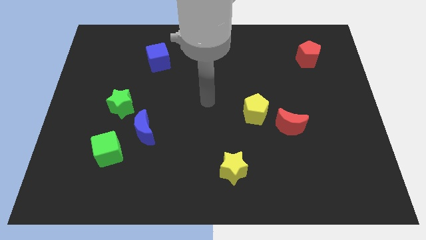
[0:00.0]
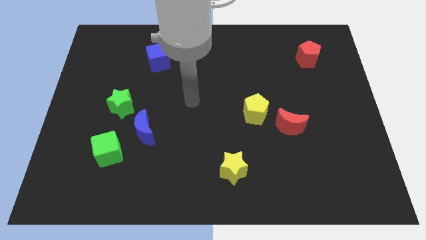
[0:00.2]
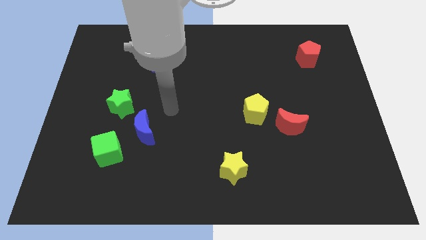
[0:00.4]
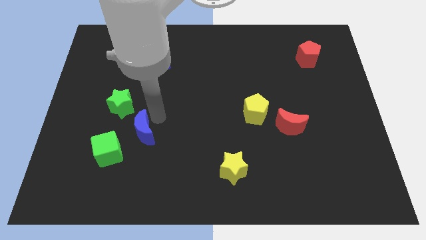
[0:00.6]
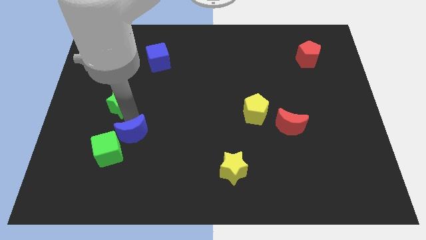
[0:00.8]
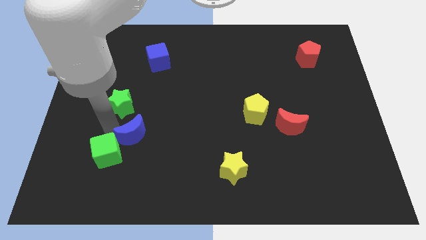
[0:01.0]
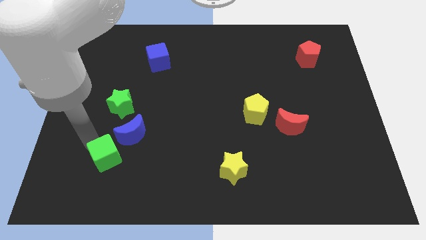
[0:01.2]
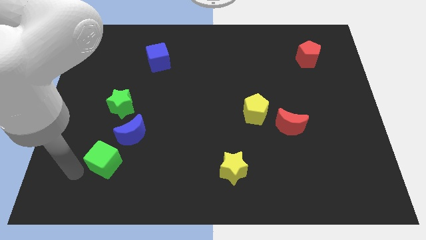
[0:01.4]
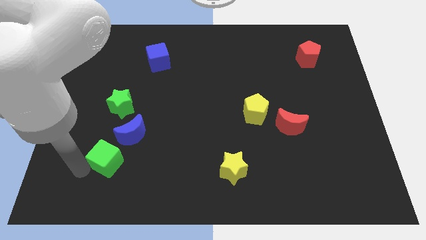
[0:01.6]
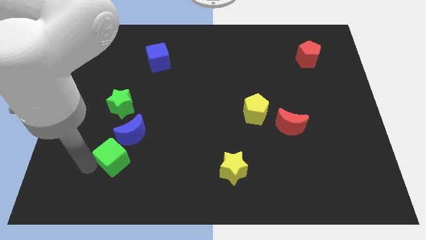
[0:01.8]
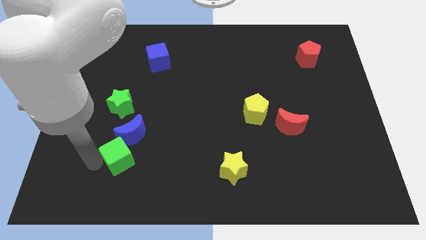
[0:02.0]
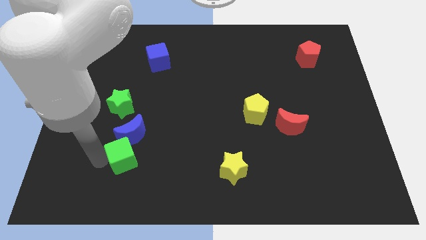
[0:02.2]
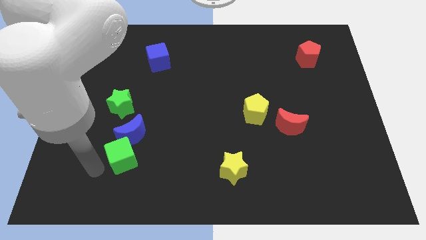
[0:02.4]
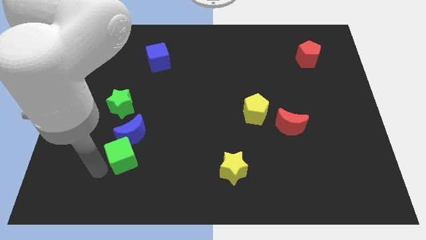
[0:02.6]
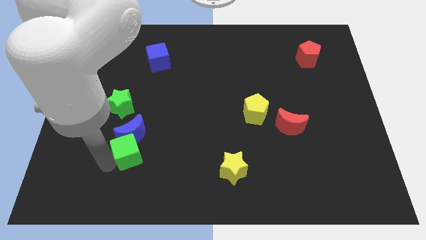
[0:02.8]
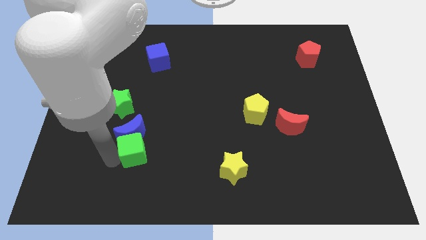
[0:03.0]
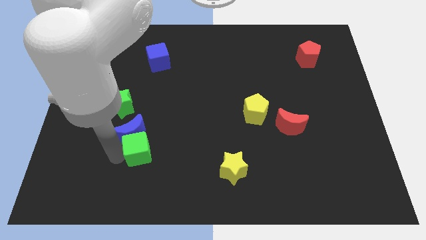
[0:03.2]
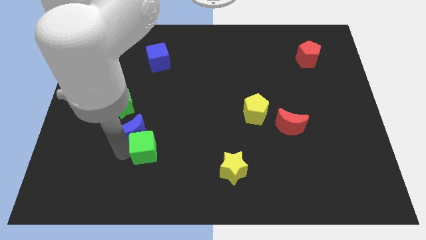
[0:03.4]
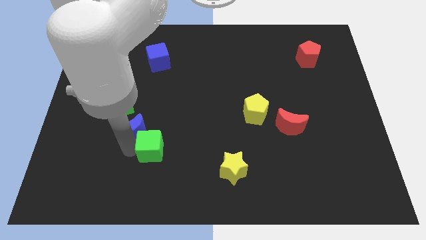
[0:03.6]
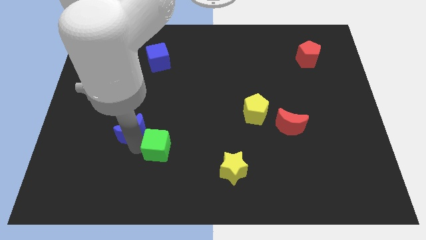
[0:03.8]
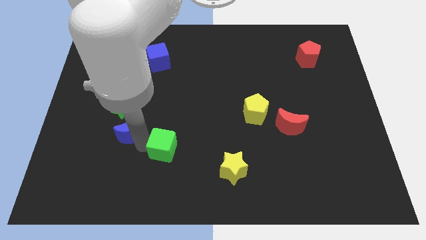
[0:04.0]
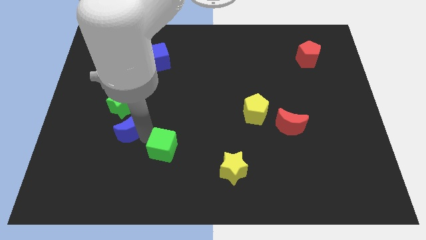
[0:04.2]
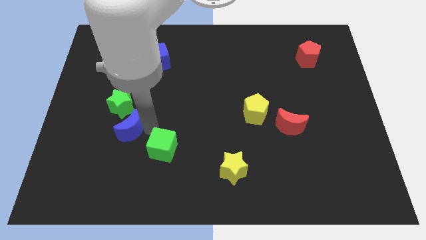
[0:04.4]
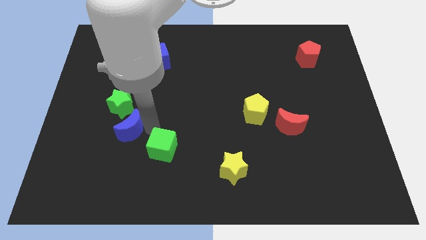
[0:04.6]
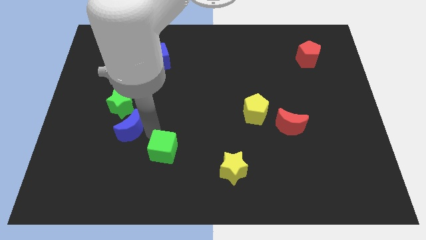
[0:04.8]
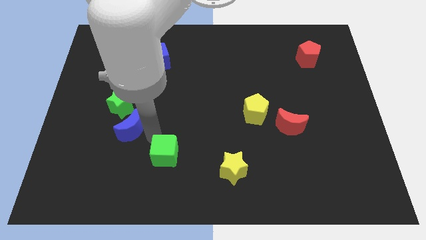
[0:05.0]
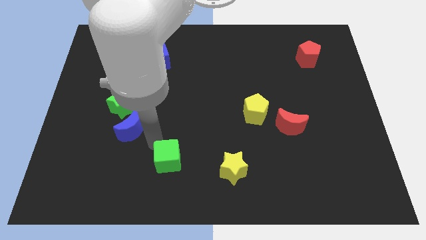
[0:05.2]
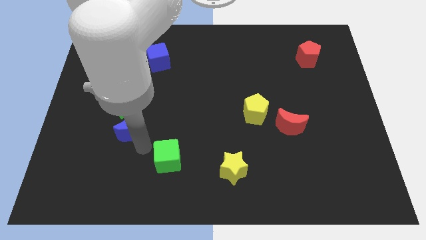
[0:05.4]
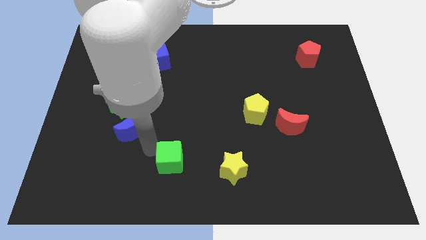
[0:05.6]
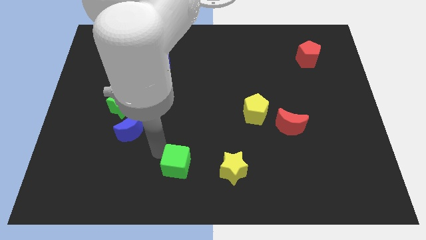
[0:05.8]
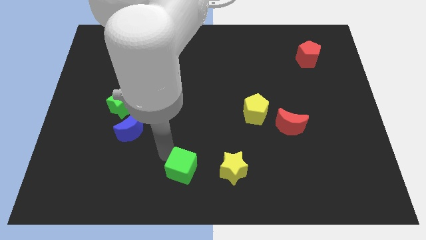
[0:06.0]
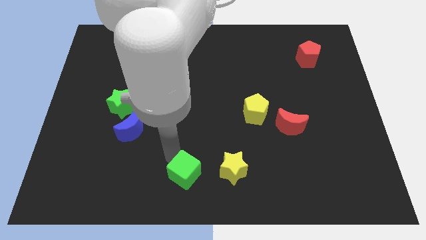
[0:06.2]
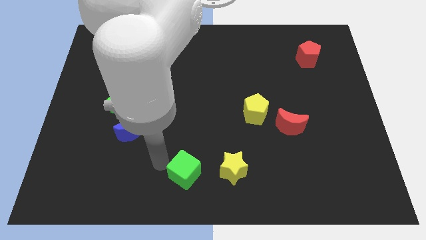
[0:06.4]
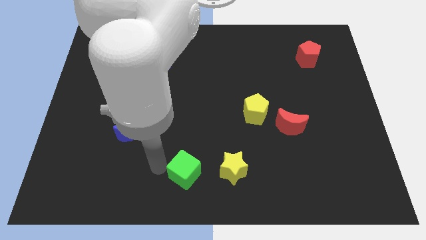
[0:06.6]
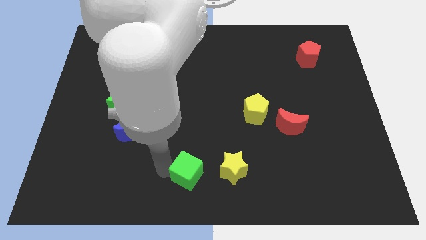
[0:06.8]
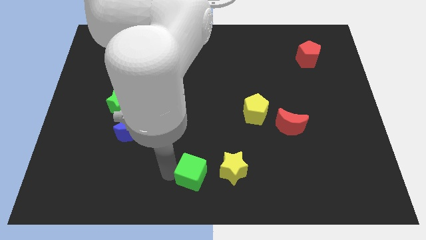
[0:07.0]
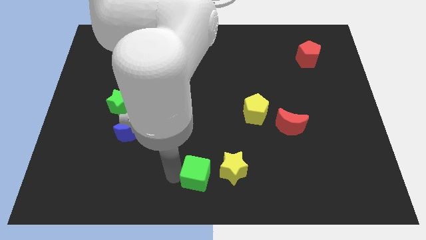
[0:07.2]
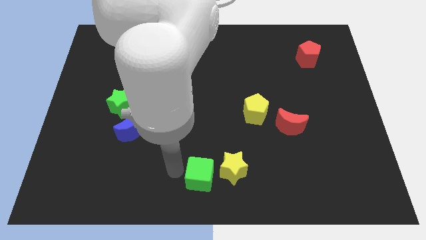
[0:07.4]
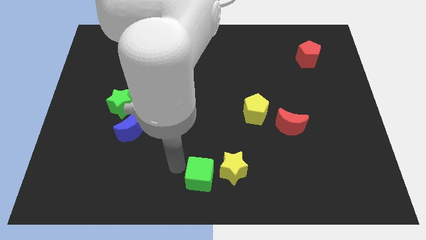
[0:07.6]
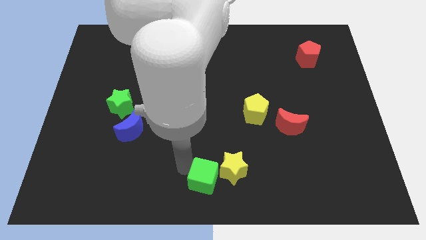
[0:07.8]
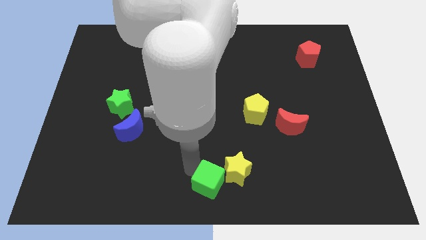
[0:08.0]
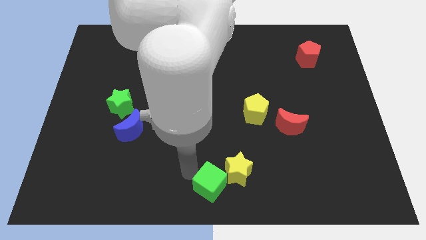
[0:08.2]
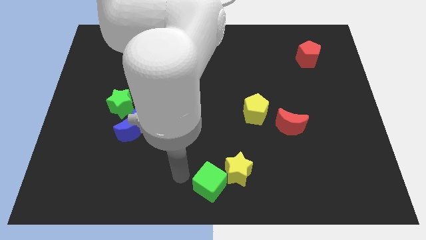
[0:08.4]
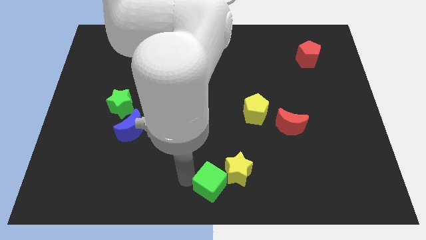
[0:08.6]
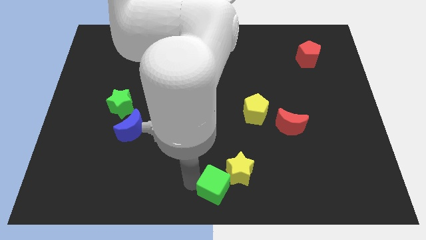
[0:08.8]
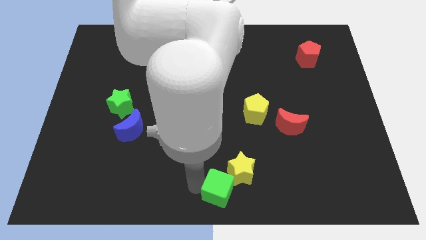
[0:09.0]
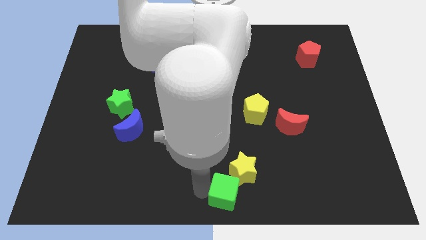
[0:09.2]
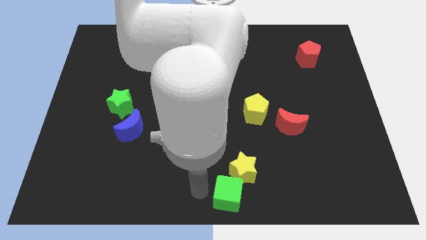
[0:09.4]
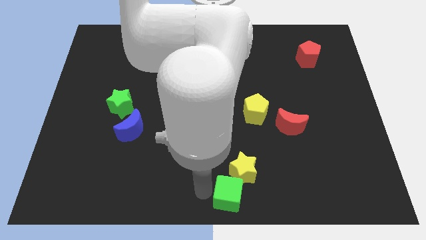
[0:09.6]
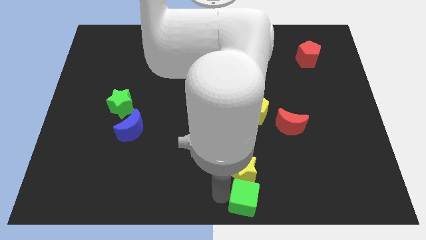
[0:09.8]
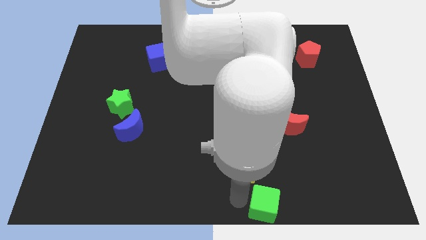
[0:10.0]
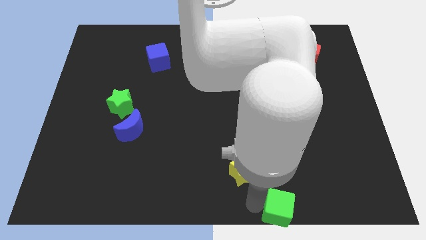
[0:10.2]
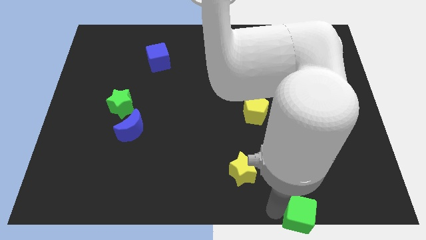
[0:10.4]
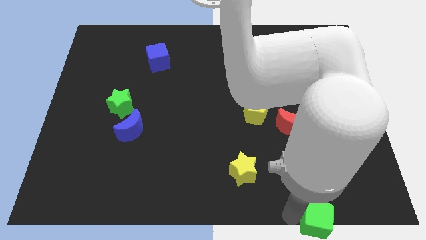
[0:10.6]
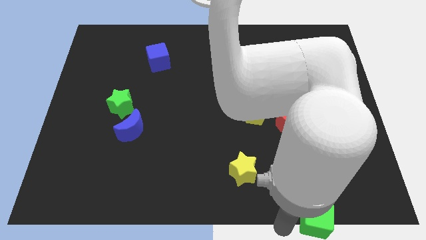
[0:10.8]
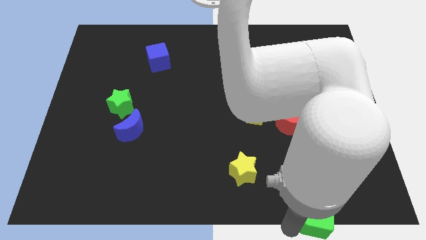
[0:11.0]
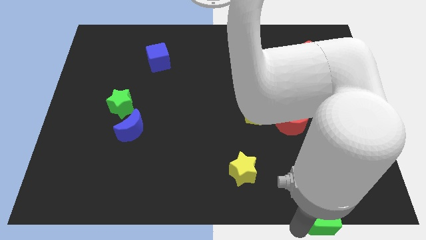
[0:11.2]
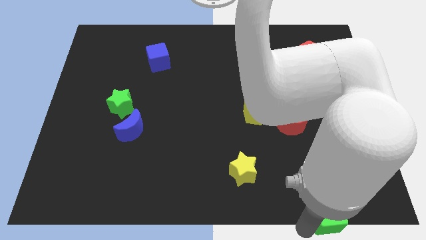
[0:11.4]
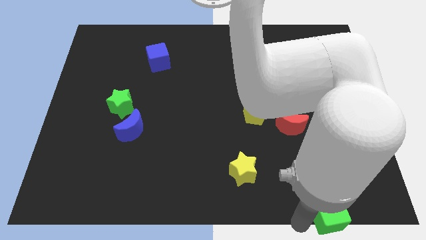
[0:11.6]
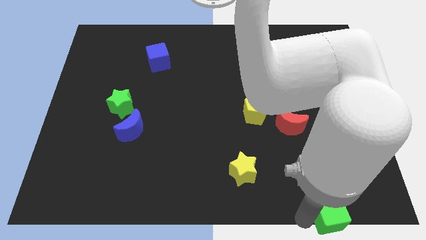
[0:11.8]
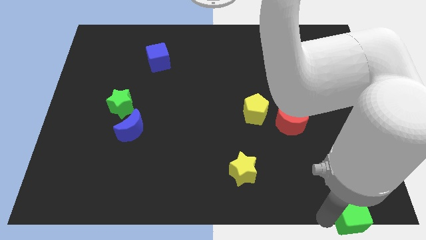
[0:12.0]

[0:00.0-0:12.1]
move the green cube to the bottom right

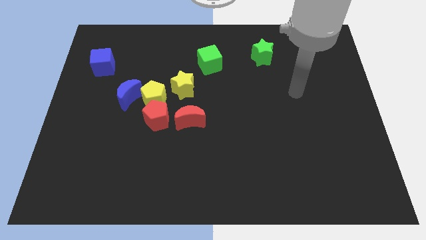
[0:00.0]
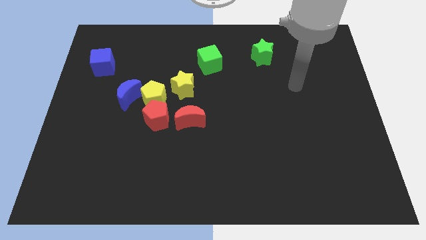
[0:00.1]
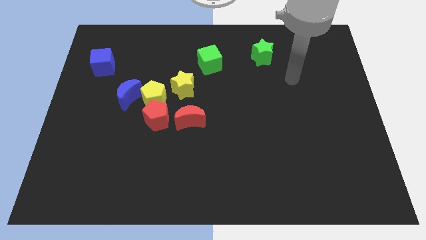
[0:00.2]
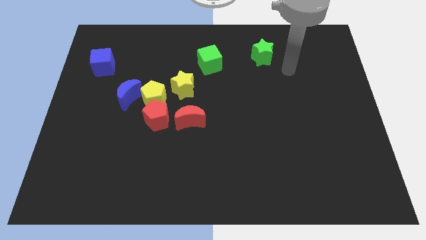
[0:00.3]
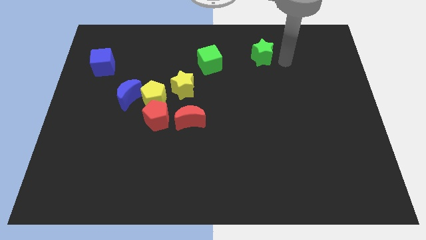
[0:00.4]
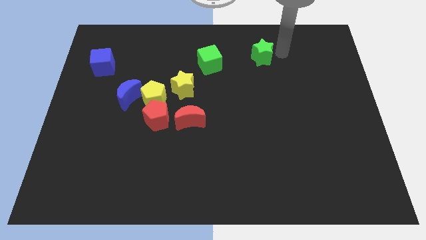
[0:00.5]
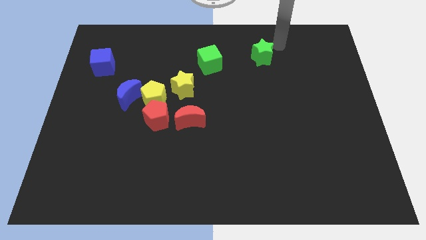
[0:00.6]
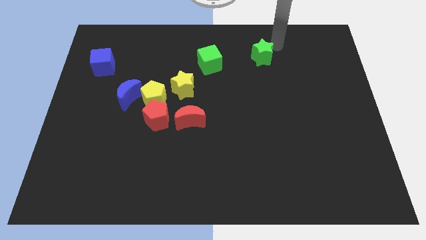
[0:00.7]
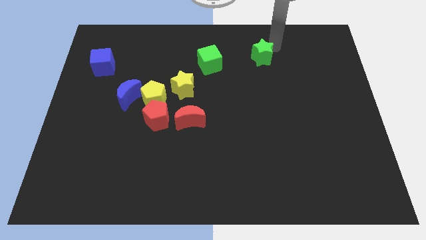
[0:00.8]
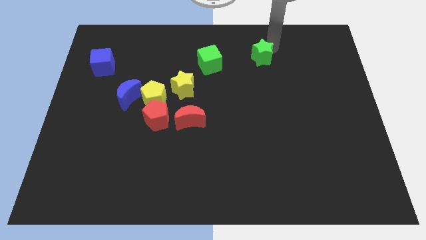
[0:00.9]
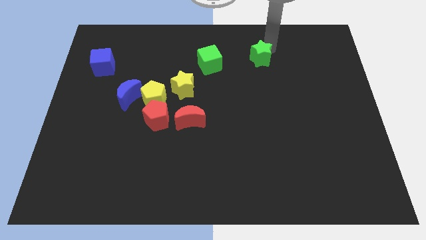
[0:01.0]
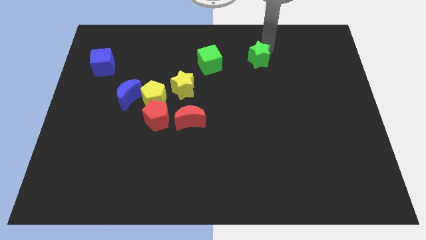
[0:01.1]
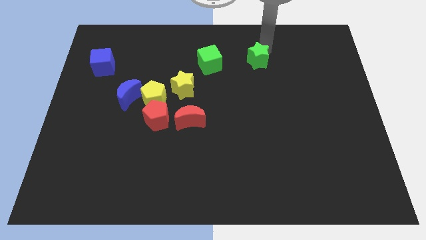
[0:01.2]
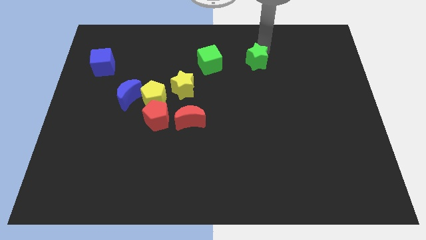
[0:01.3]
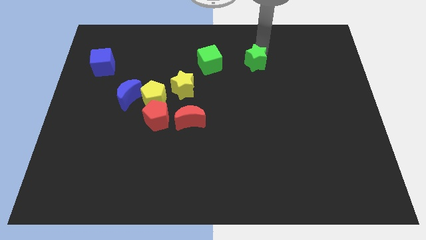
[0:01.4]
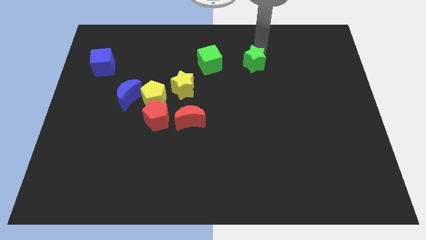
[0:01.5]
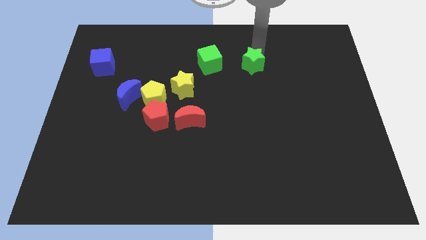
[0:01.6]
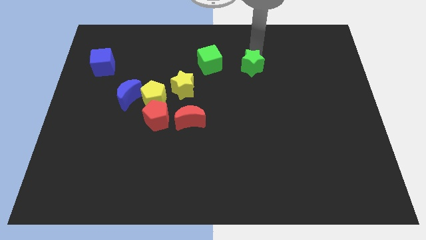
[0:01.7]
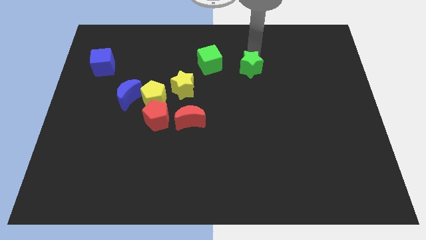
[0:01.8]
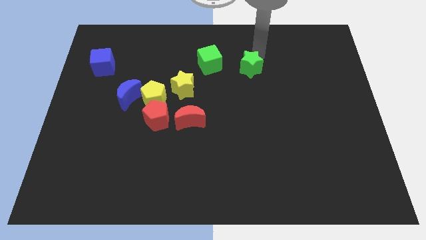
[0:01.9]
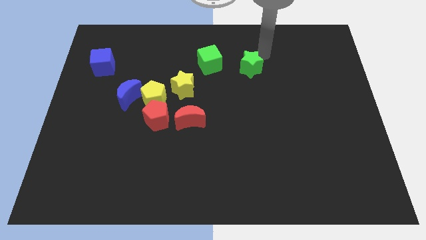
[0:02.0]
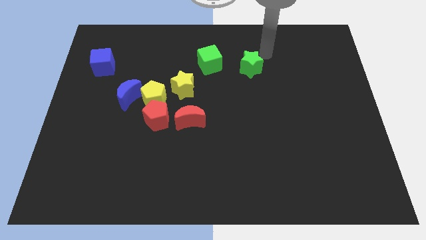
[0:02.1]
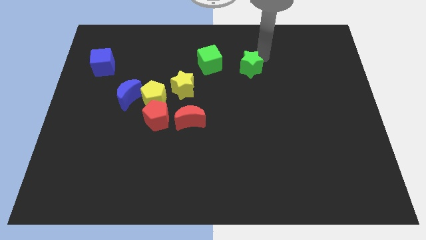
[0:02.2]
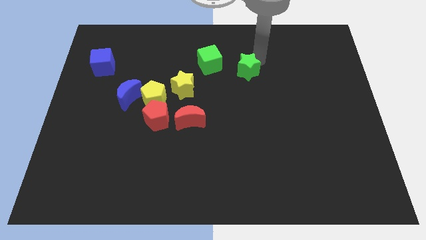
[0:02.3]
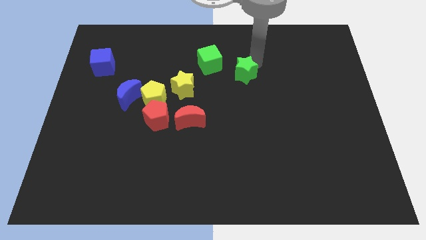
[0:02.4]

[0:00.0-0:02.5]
slide the green star to the center of the board
